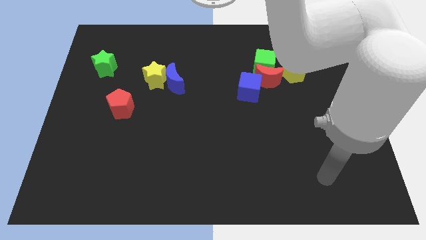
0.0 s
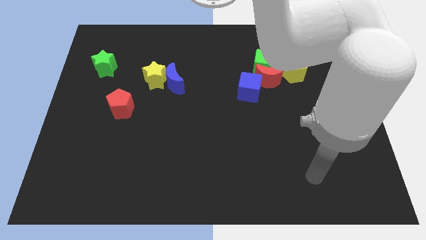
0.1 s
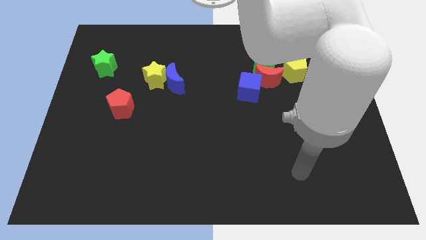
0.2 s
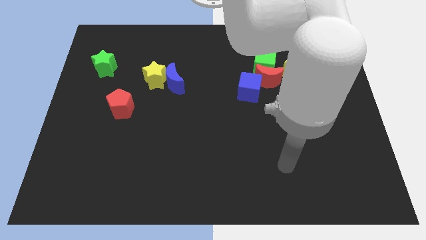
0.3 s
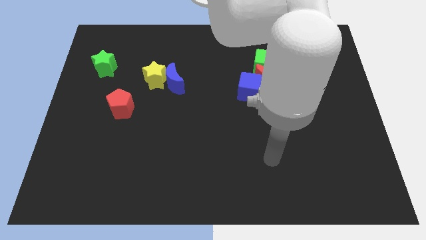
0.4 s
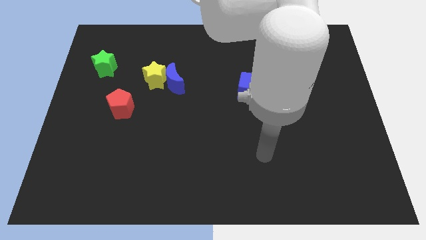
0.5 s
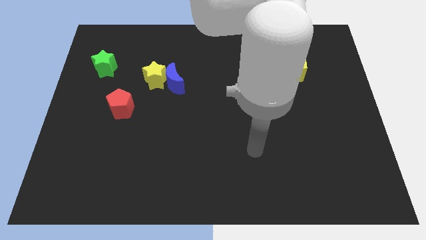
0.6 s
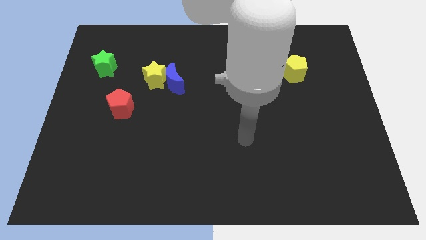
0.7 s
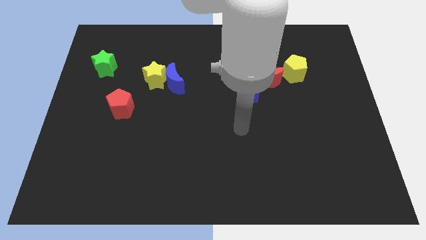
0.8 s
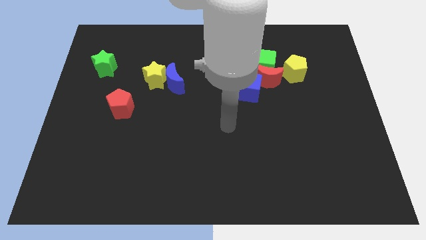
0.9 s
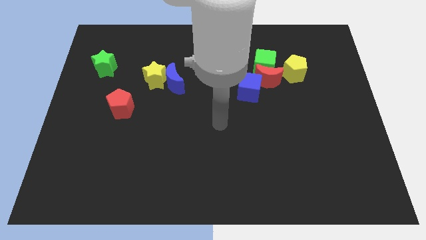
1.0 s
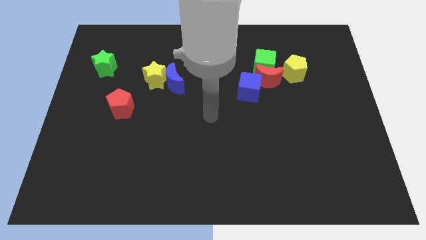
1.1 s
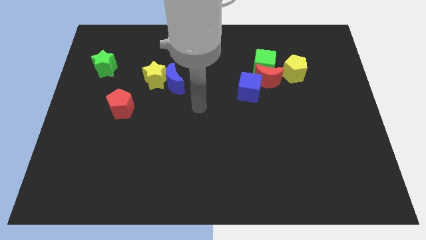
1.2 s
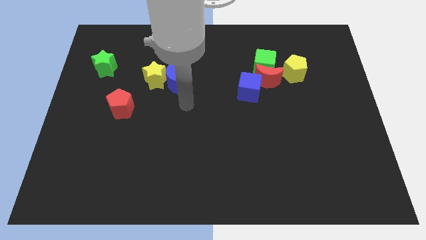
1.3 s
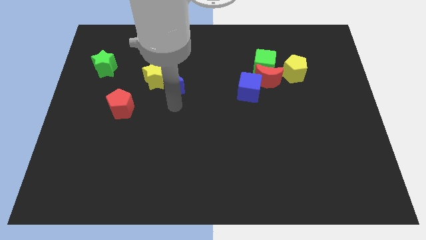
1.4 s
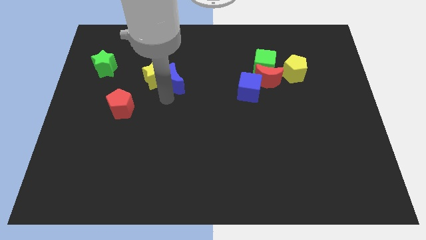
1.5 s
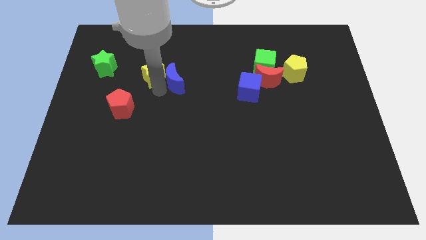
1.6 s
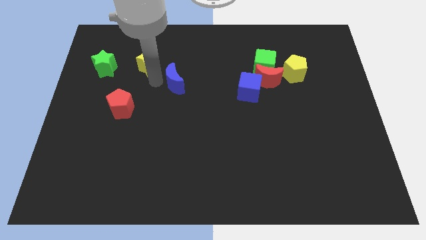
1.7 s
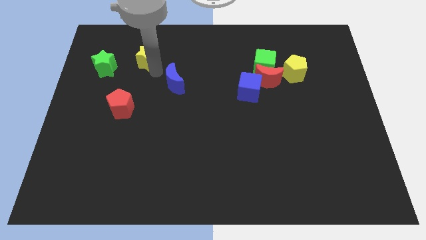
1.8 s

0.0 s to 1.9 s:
separate the blue moon from the yellow star

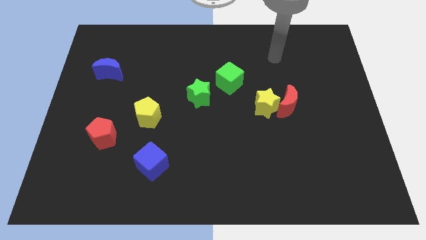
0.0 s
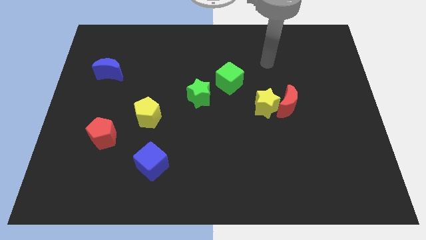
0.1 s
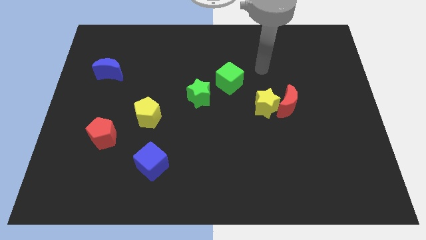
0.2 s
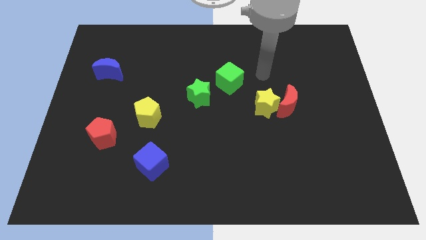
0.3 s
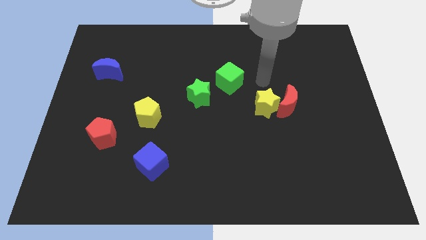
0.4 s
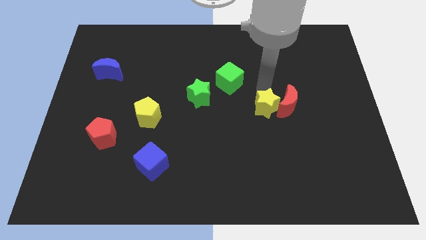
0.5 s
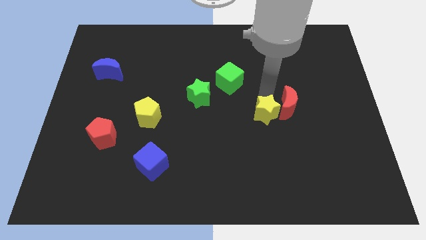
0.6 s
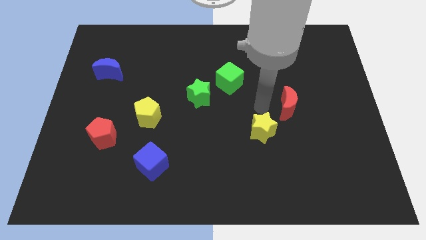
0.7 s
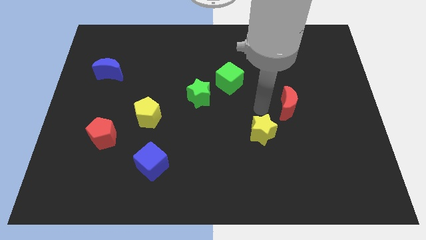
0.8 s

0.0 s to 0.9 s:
separate the red moon from the yellow star

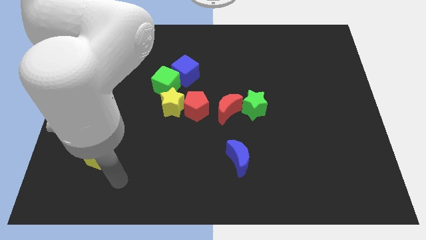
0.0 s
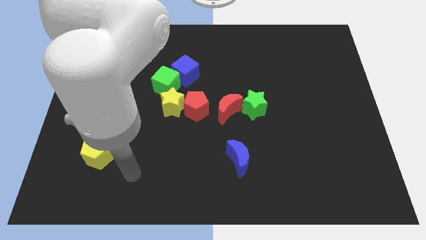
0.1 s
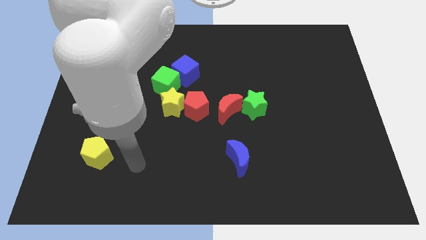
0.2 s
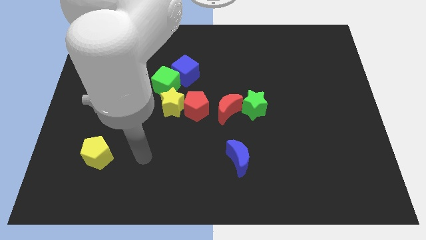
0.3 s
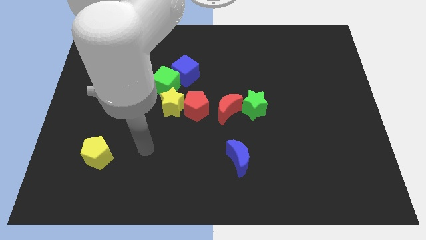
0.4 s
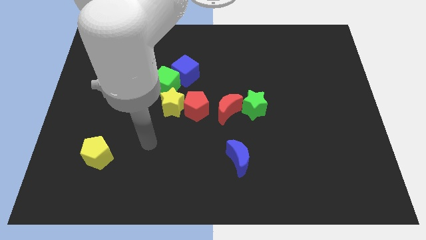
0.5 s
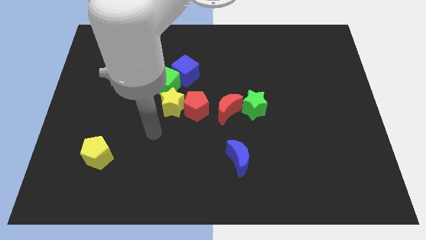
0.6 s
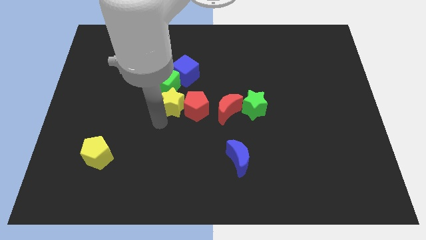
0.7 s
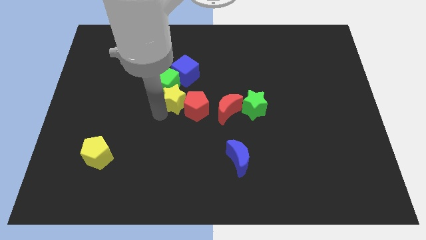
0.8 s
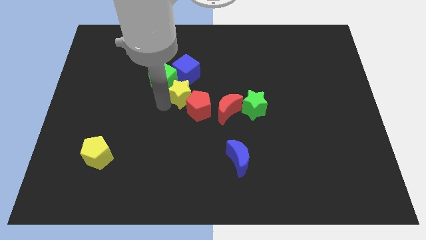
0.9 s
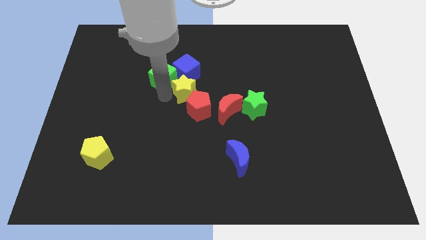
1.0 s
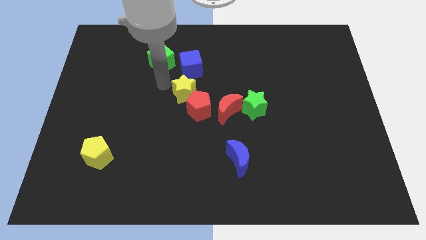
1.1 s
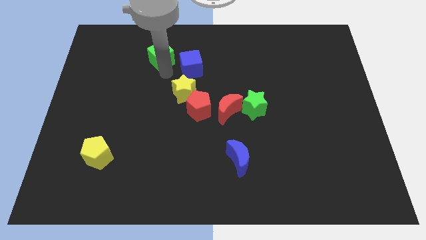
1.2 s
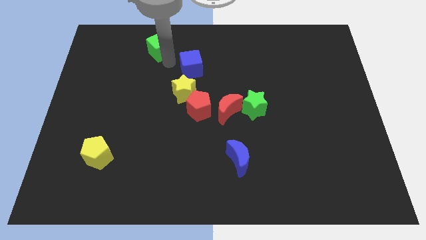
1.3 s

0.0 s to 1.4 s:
move the blue cube away from the green cube

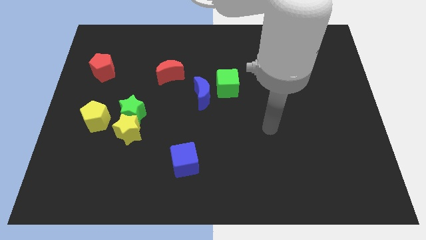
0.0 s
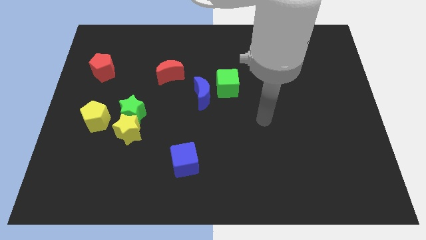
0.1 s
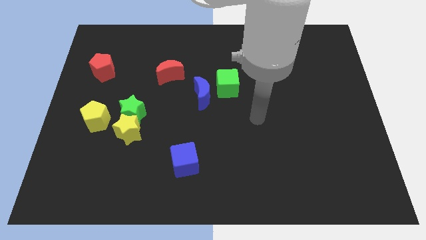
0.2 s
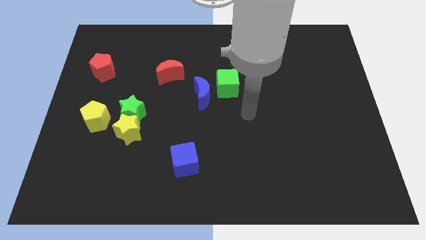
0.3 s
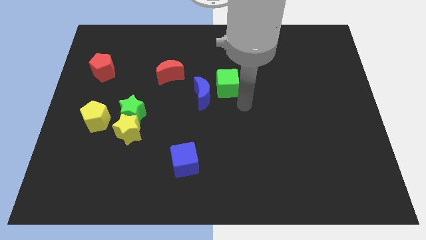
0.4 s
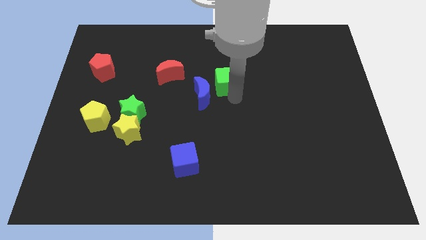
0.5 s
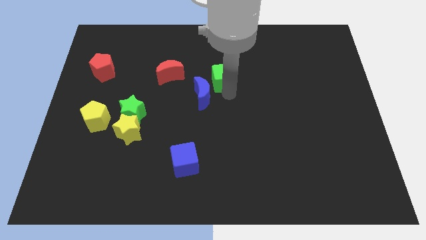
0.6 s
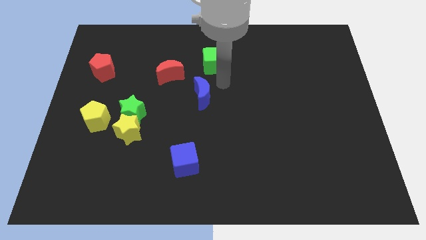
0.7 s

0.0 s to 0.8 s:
pull the blue moon apart from the green cube

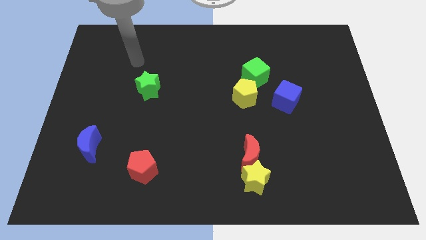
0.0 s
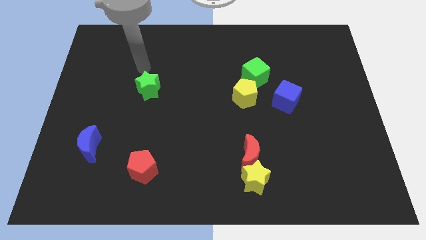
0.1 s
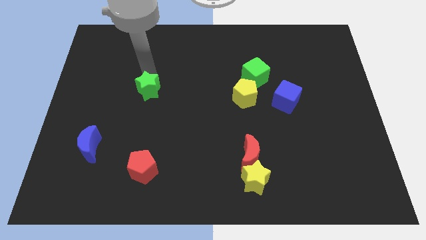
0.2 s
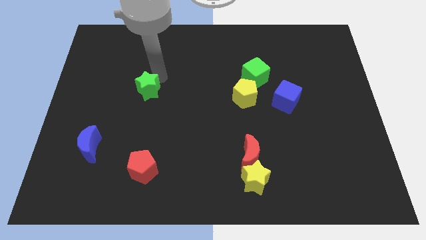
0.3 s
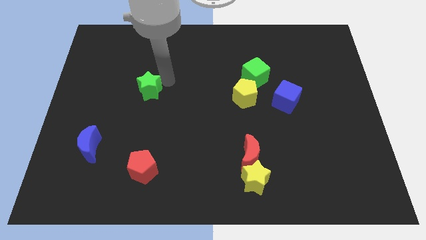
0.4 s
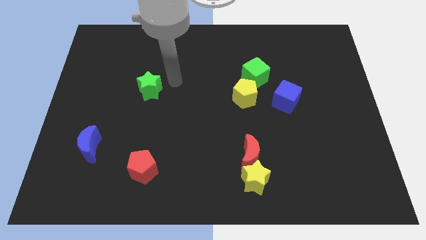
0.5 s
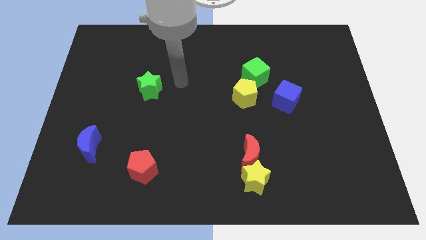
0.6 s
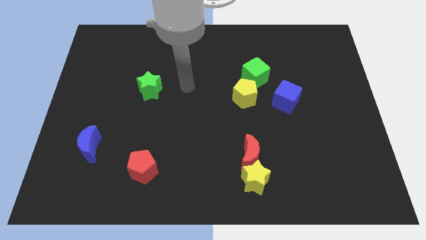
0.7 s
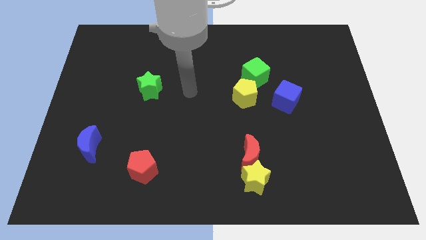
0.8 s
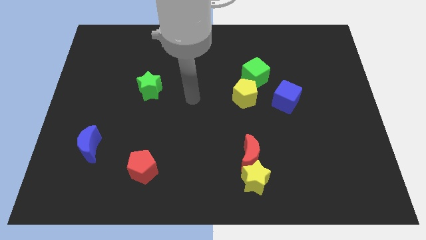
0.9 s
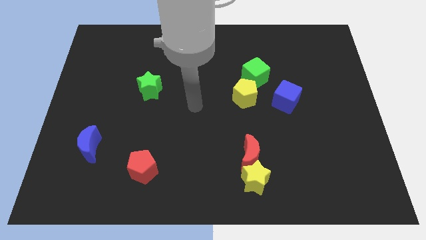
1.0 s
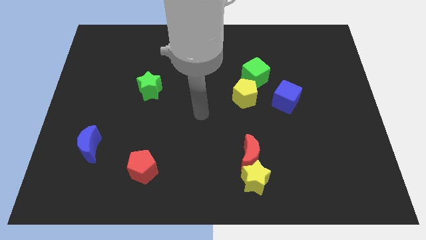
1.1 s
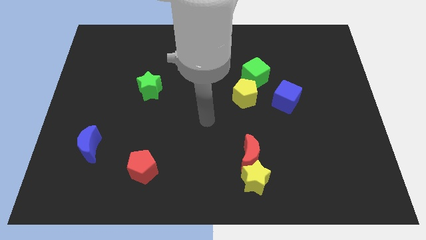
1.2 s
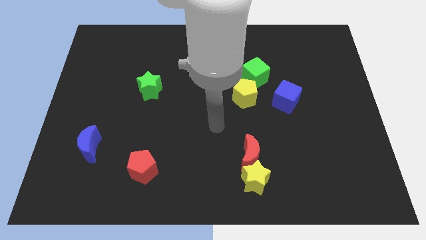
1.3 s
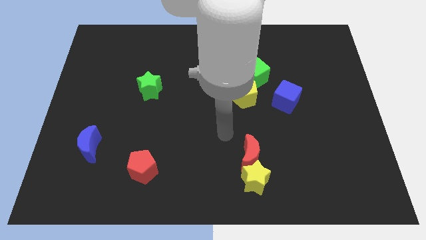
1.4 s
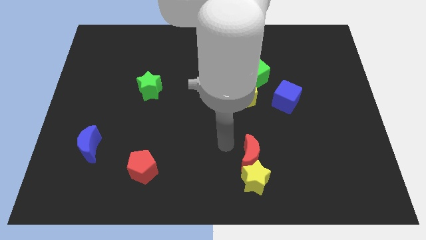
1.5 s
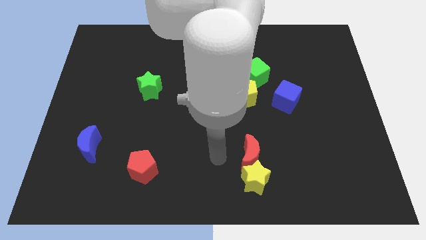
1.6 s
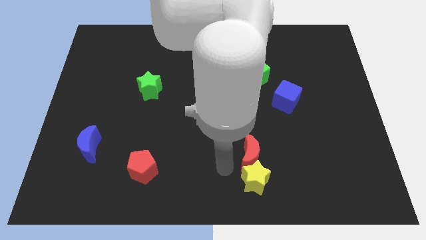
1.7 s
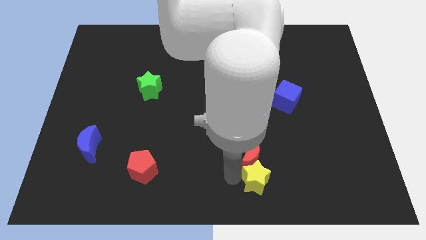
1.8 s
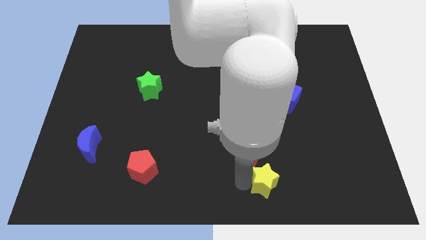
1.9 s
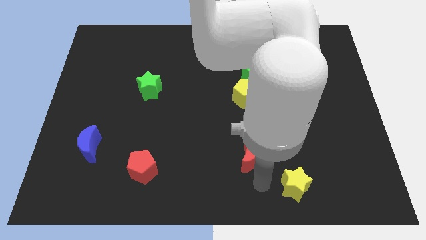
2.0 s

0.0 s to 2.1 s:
move the red moon away from the yellow star

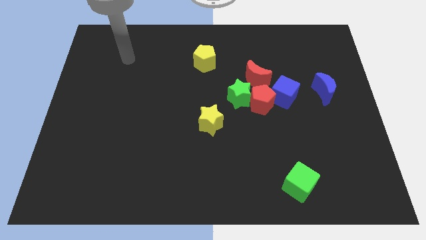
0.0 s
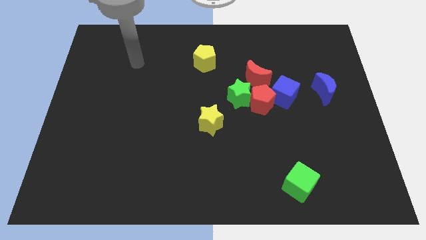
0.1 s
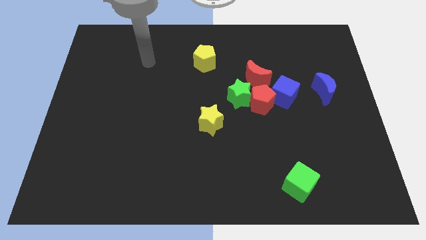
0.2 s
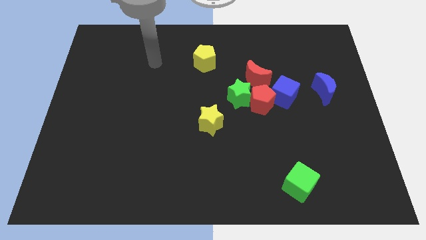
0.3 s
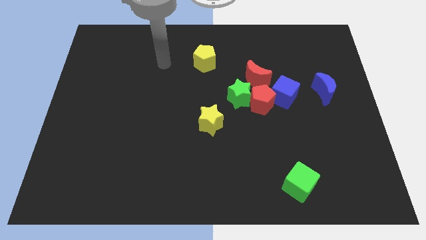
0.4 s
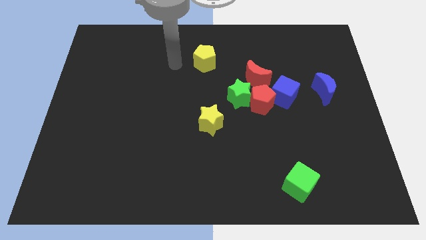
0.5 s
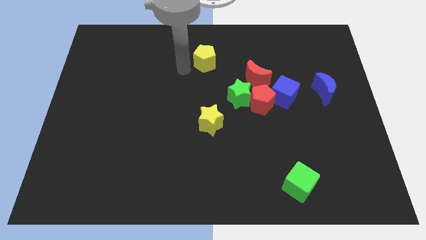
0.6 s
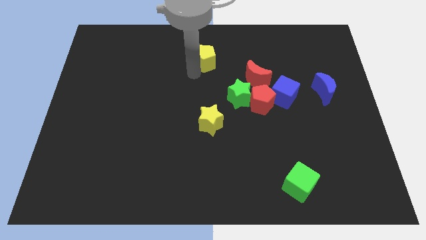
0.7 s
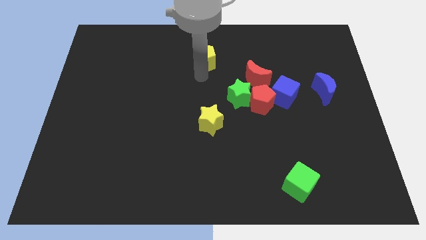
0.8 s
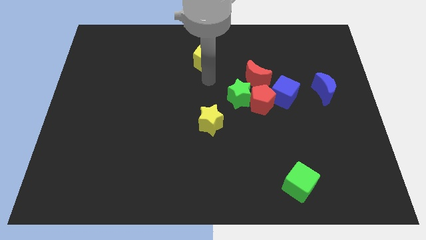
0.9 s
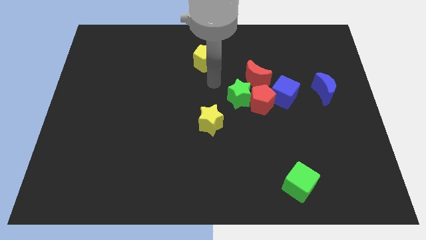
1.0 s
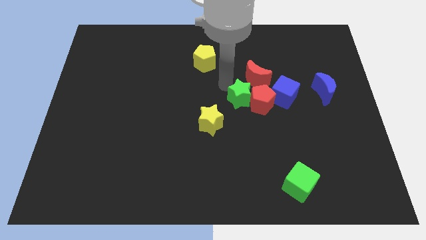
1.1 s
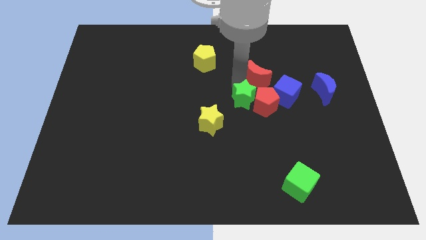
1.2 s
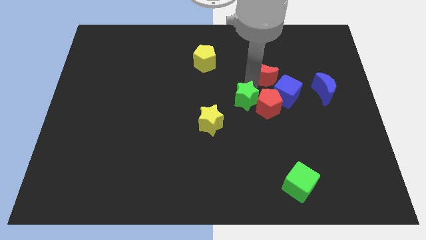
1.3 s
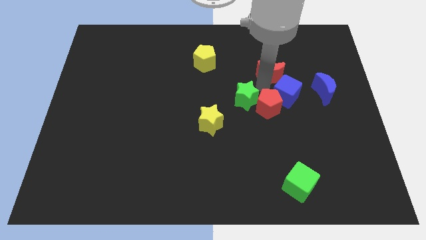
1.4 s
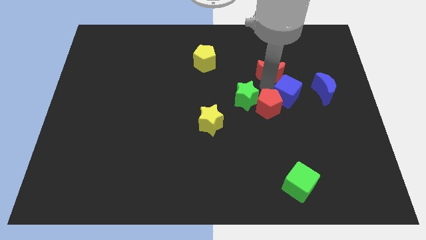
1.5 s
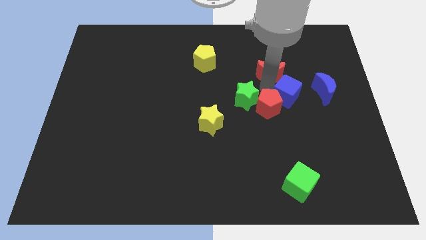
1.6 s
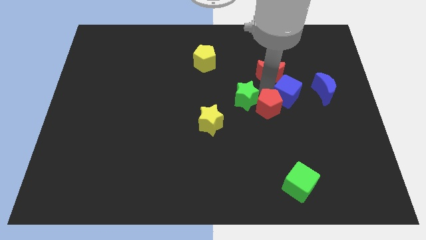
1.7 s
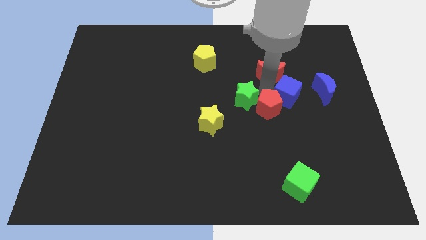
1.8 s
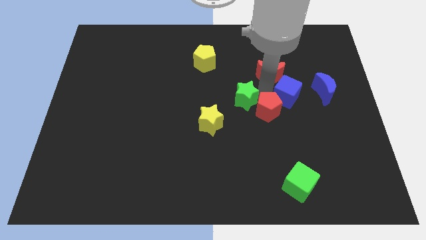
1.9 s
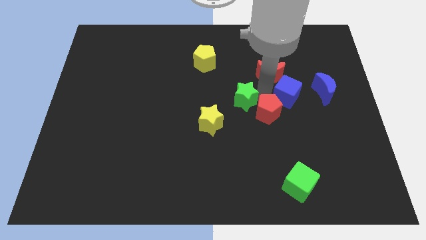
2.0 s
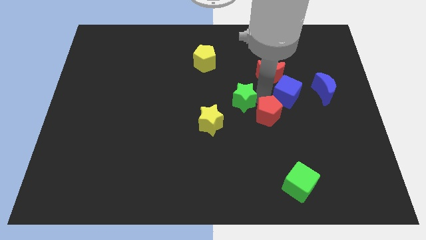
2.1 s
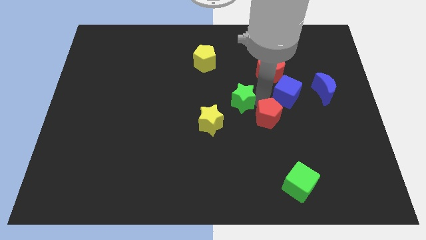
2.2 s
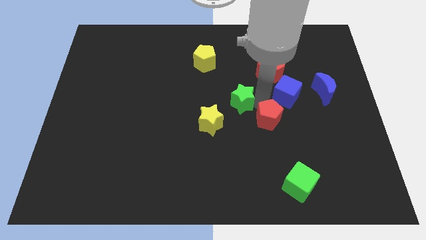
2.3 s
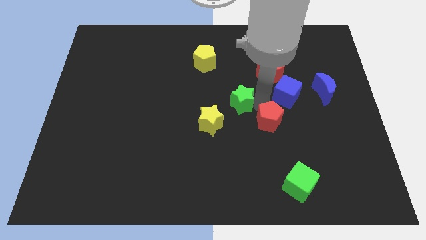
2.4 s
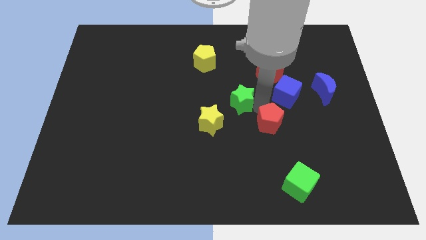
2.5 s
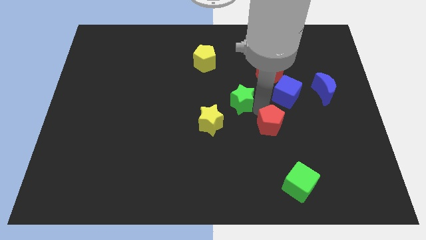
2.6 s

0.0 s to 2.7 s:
move the red pentagon away from the group
